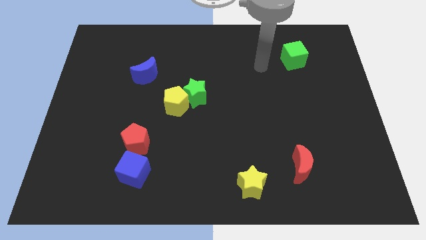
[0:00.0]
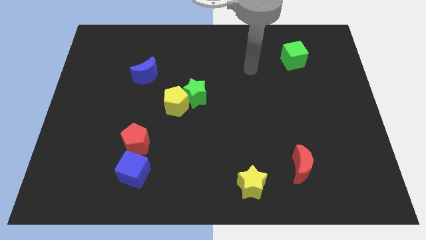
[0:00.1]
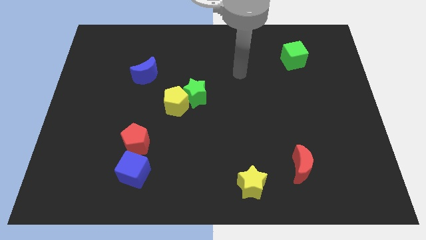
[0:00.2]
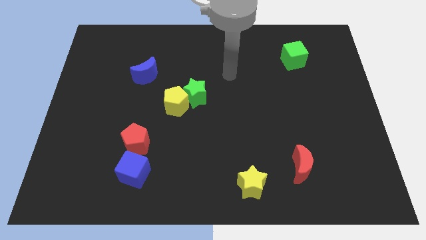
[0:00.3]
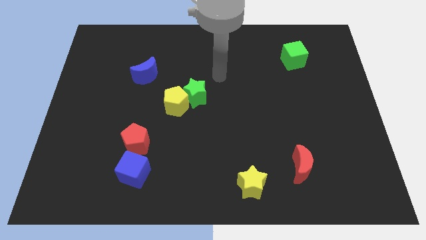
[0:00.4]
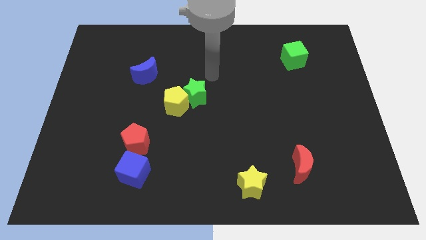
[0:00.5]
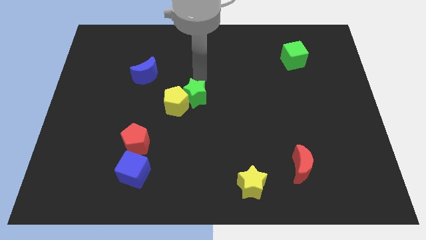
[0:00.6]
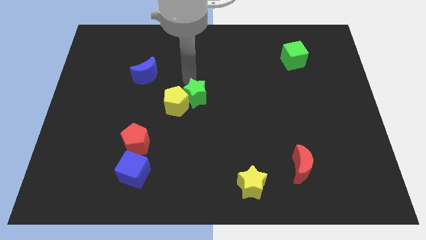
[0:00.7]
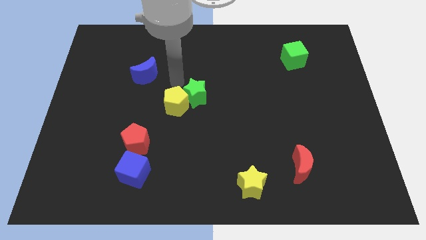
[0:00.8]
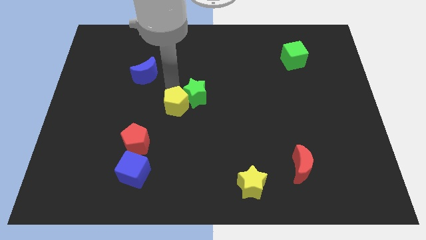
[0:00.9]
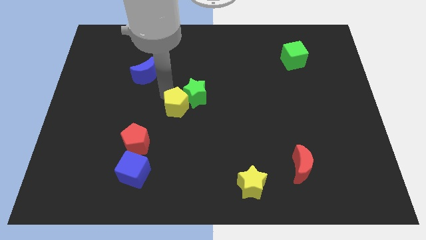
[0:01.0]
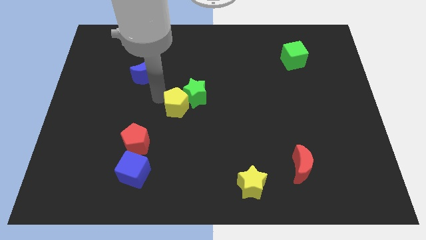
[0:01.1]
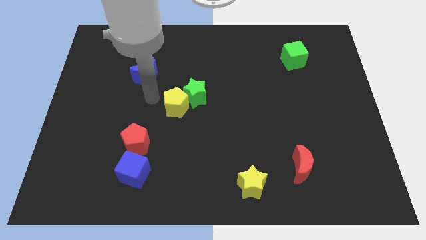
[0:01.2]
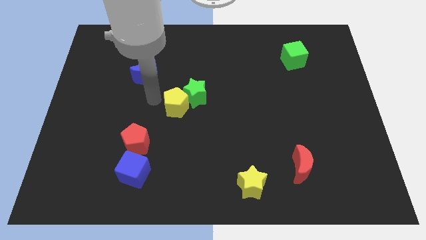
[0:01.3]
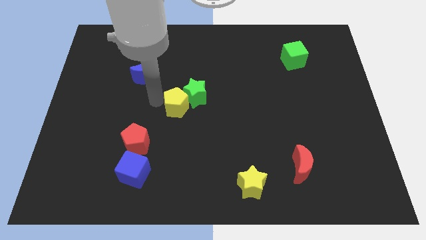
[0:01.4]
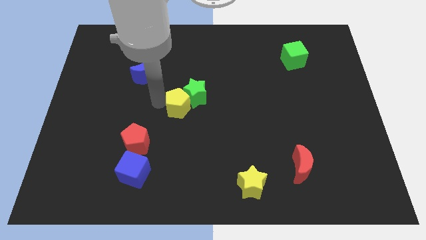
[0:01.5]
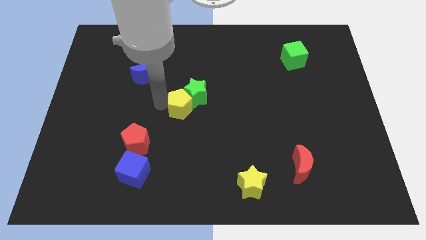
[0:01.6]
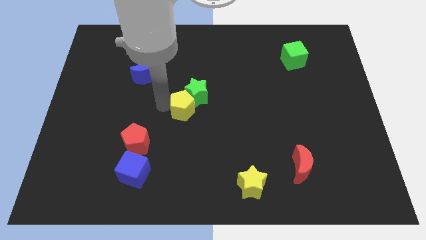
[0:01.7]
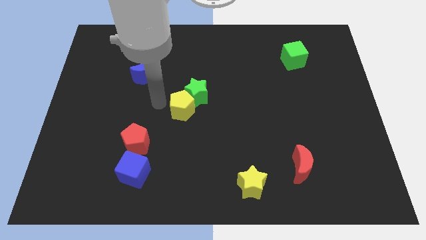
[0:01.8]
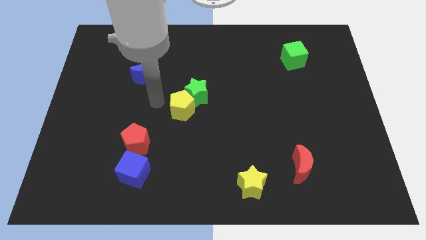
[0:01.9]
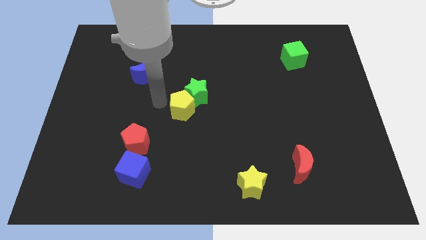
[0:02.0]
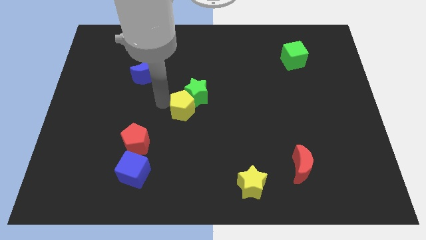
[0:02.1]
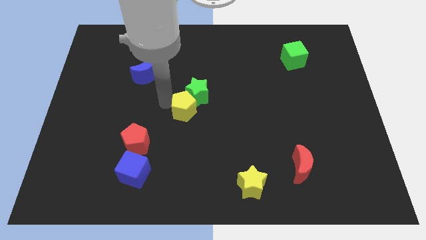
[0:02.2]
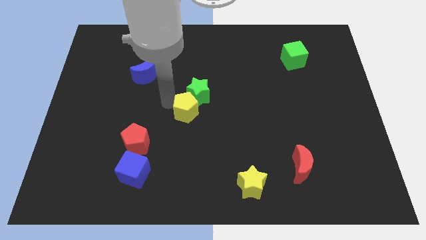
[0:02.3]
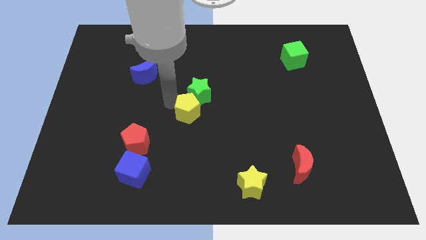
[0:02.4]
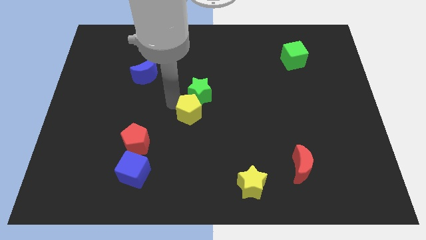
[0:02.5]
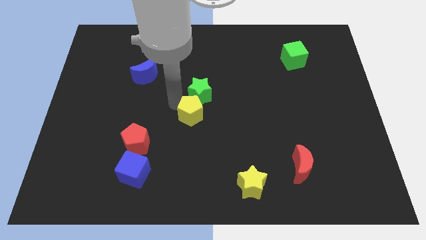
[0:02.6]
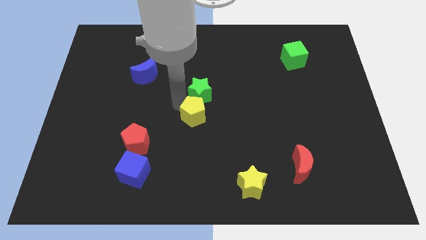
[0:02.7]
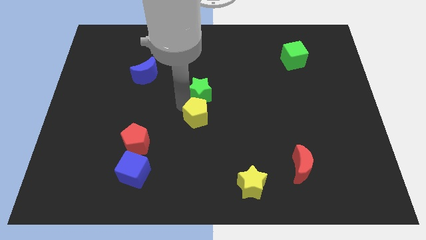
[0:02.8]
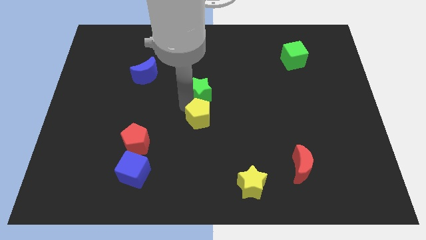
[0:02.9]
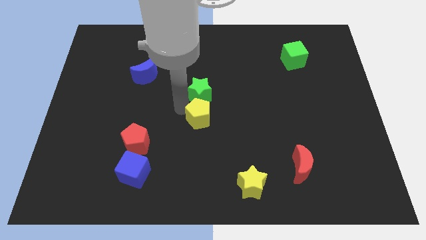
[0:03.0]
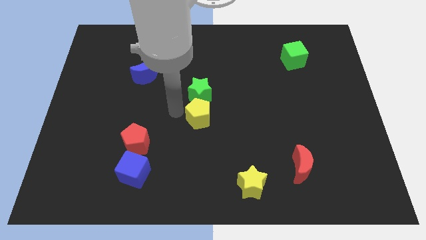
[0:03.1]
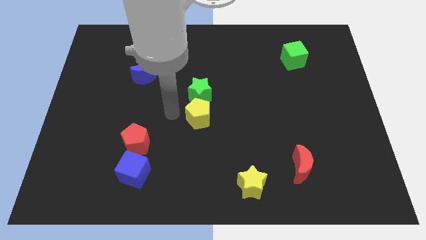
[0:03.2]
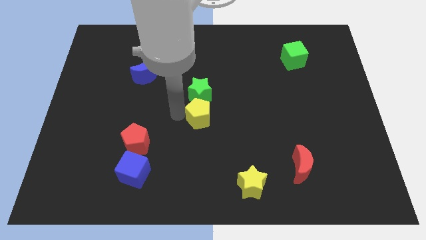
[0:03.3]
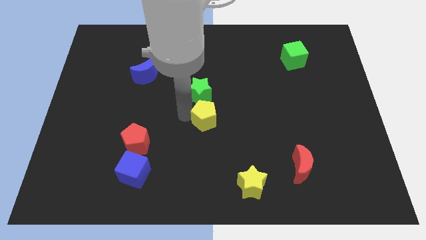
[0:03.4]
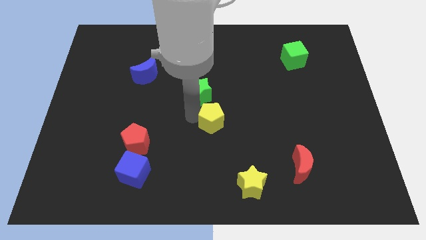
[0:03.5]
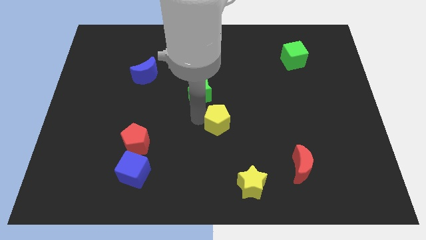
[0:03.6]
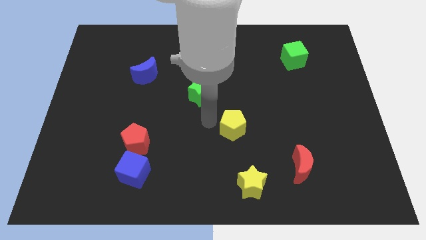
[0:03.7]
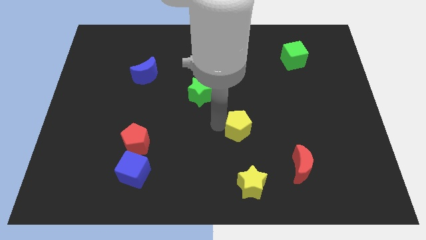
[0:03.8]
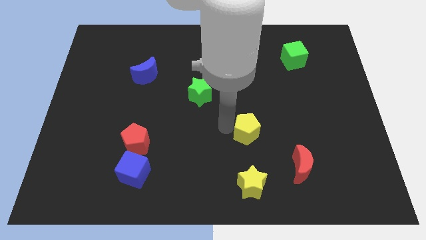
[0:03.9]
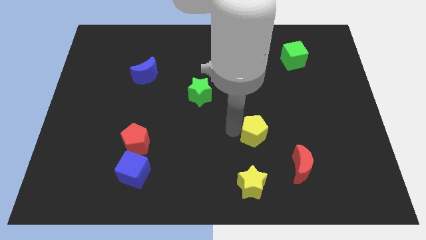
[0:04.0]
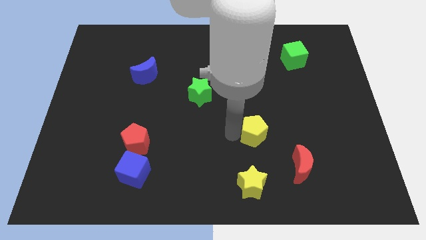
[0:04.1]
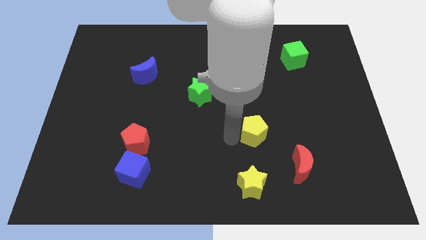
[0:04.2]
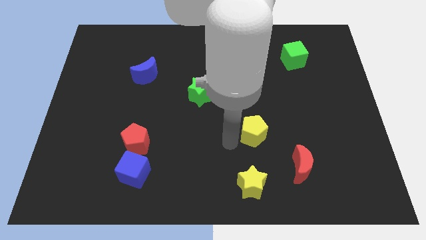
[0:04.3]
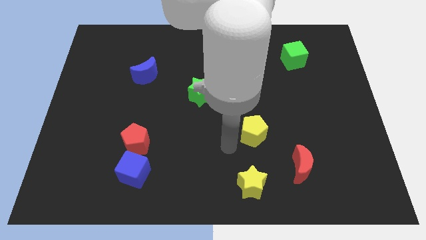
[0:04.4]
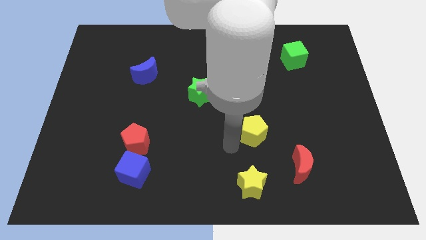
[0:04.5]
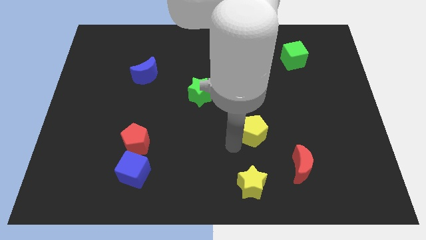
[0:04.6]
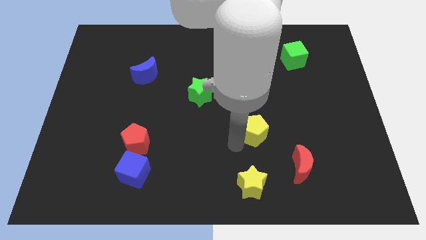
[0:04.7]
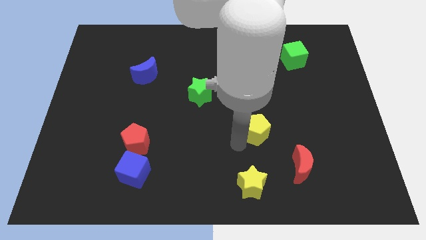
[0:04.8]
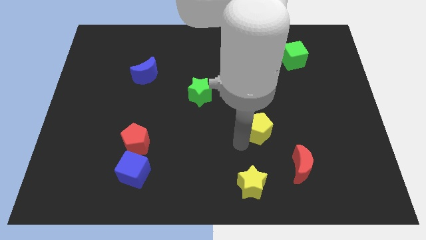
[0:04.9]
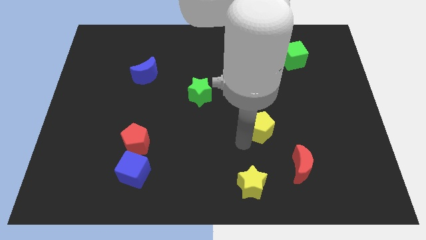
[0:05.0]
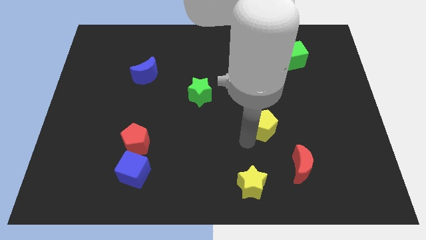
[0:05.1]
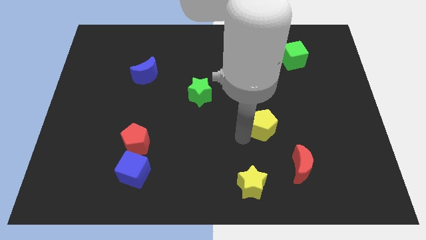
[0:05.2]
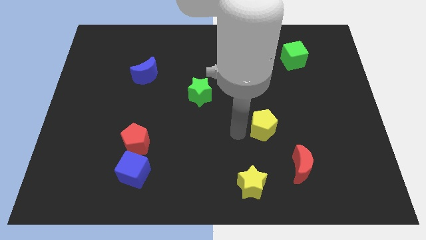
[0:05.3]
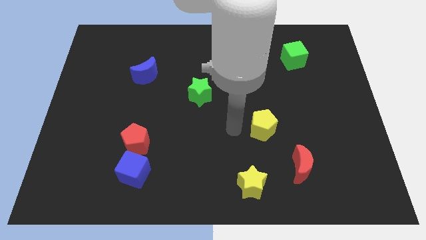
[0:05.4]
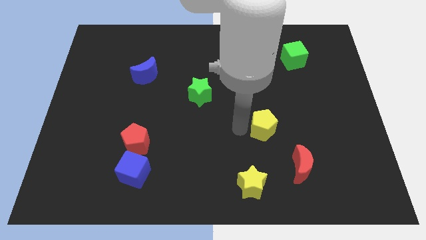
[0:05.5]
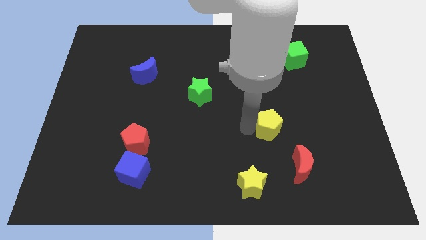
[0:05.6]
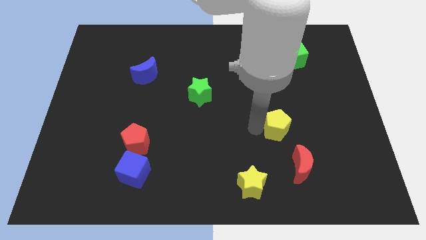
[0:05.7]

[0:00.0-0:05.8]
move the yellow pentagon to the top of the red moon

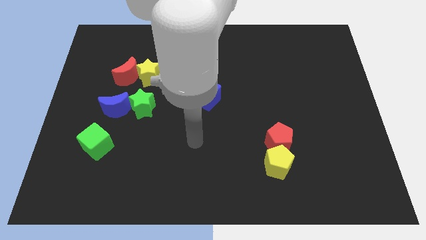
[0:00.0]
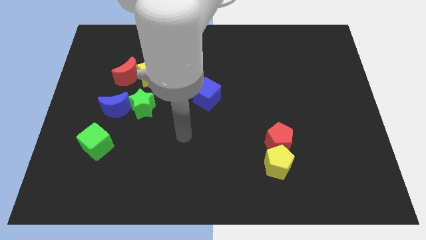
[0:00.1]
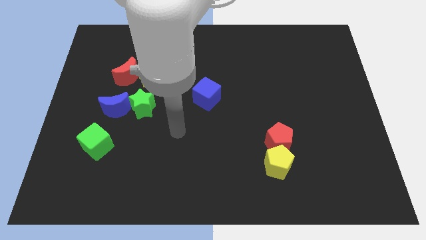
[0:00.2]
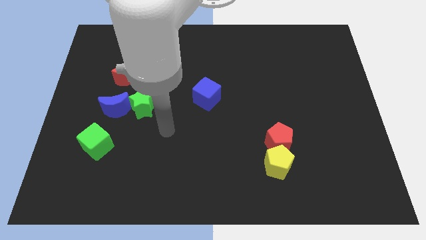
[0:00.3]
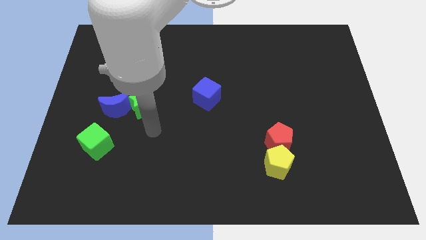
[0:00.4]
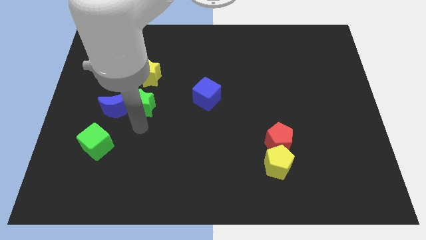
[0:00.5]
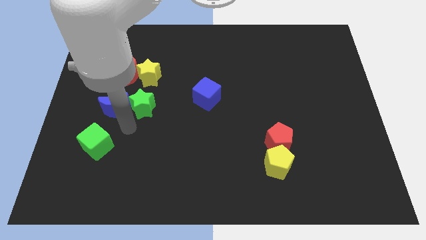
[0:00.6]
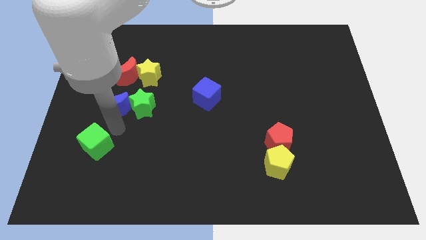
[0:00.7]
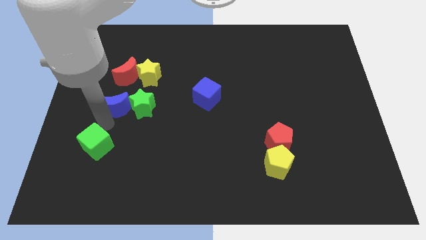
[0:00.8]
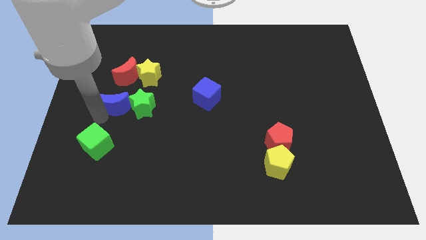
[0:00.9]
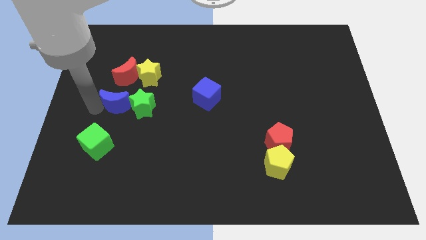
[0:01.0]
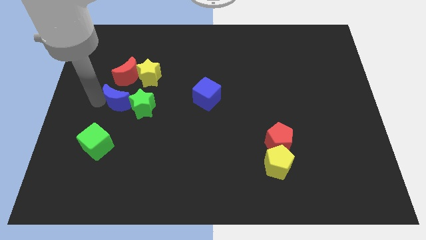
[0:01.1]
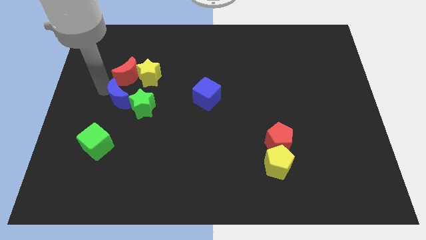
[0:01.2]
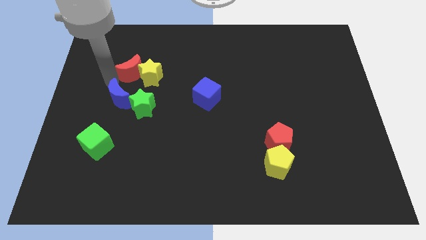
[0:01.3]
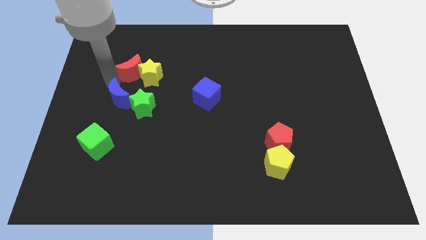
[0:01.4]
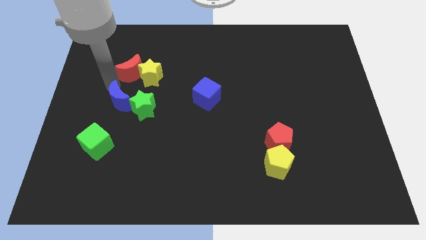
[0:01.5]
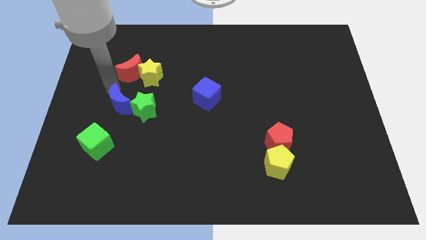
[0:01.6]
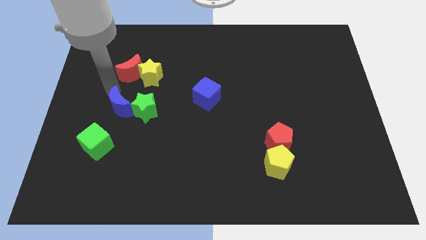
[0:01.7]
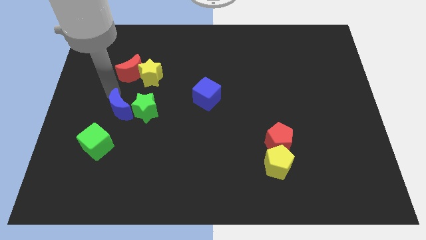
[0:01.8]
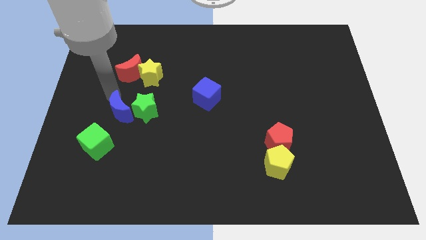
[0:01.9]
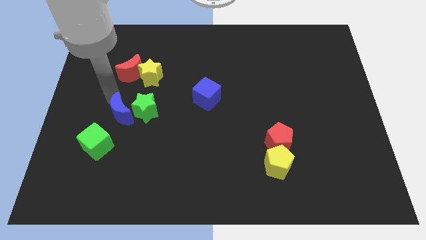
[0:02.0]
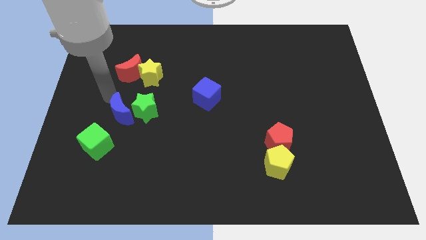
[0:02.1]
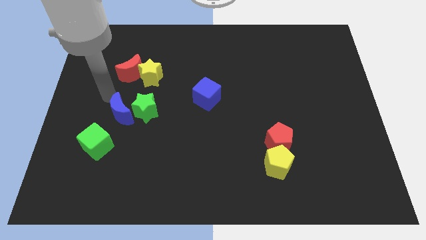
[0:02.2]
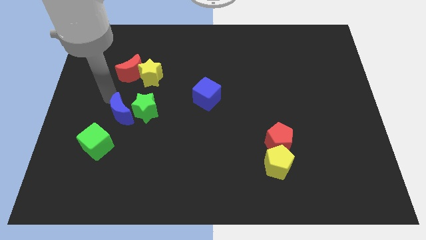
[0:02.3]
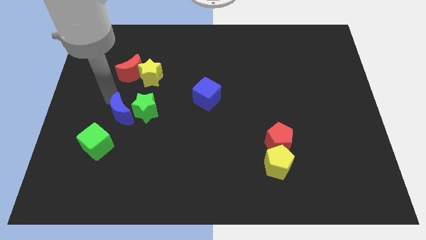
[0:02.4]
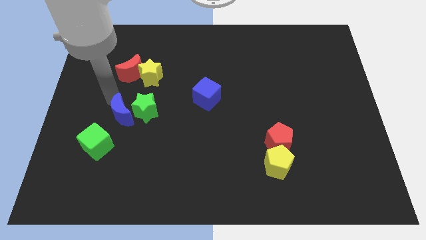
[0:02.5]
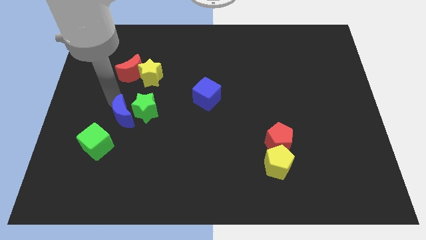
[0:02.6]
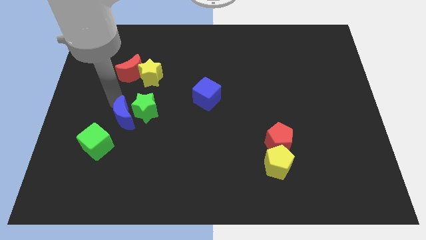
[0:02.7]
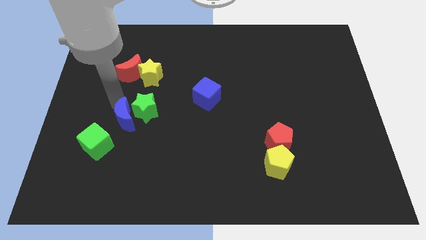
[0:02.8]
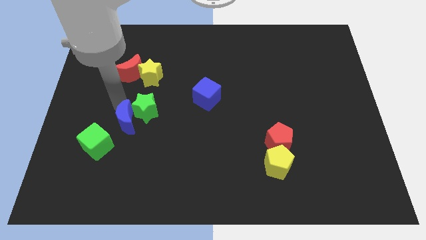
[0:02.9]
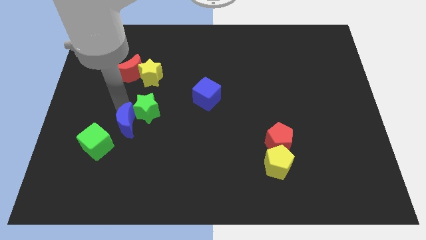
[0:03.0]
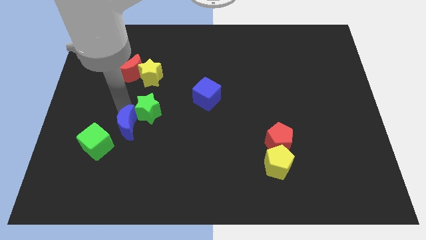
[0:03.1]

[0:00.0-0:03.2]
move the blue moon to the right side of the green cube
